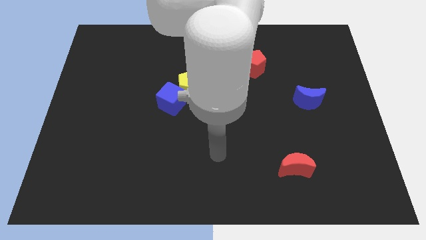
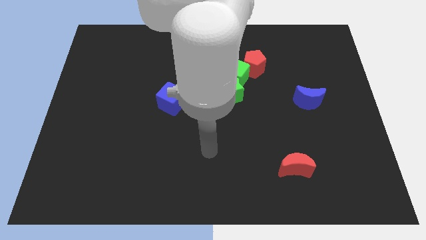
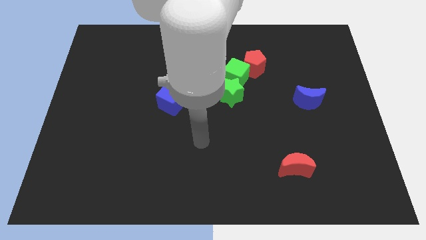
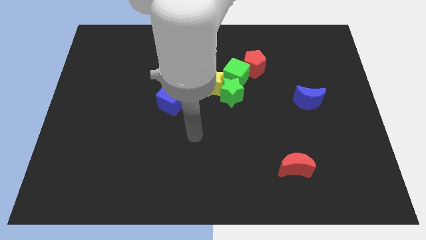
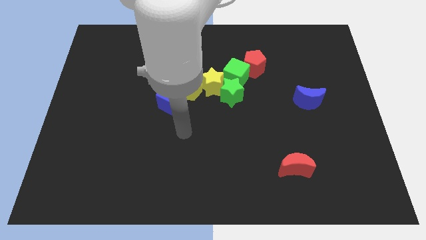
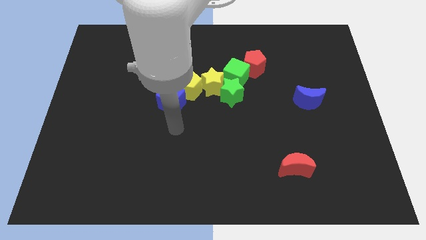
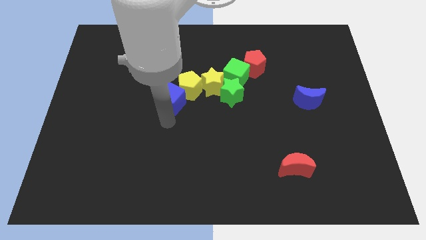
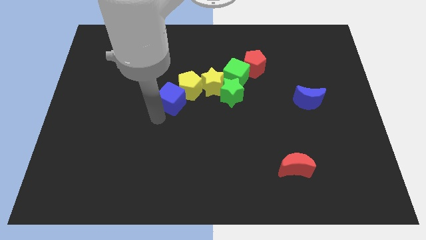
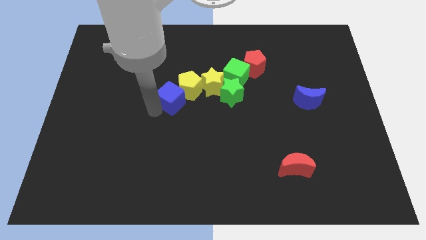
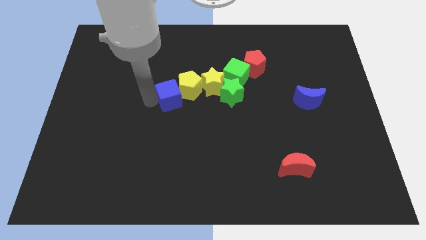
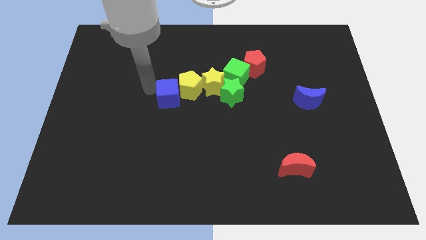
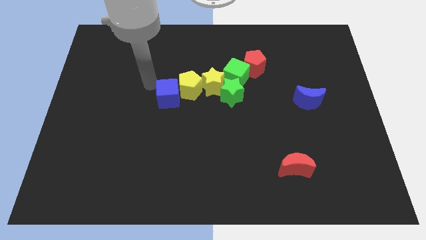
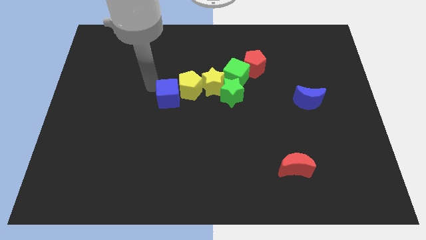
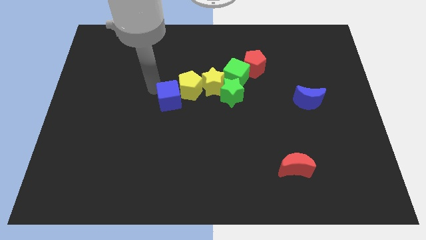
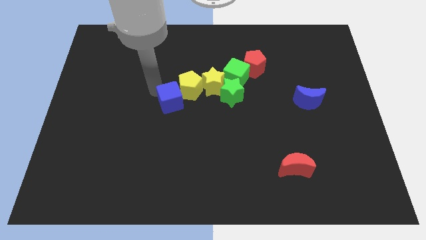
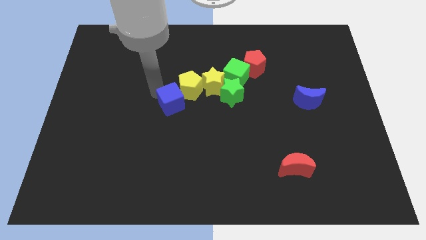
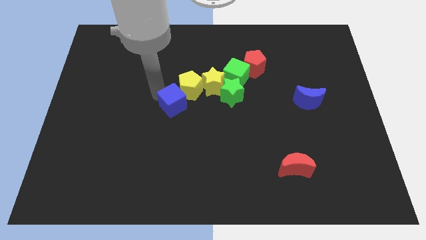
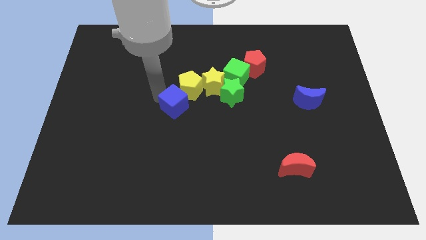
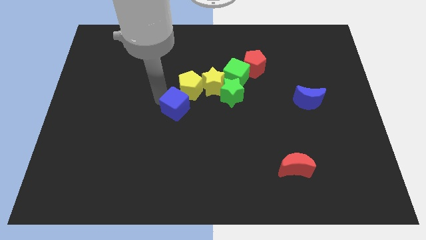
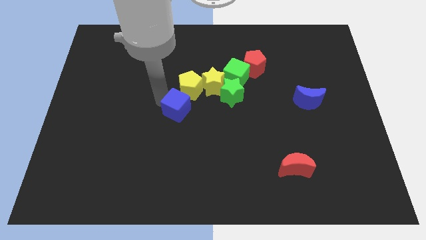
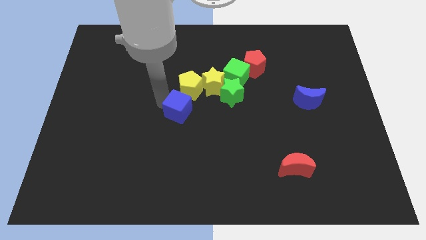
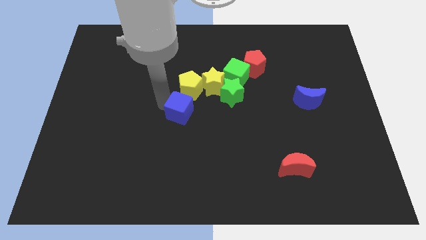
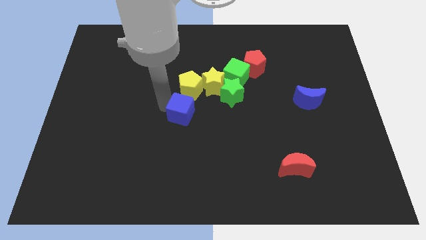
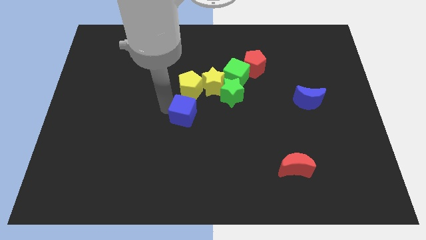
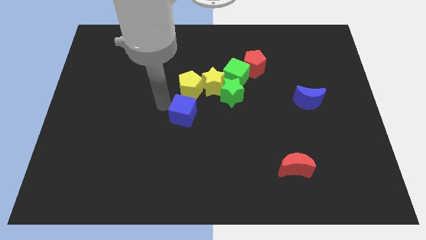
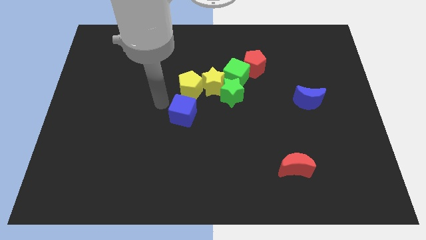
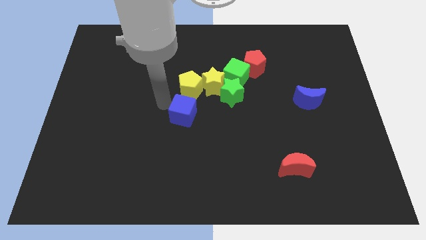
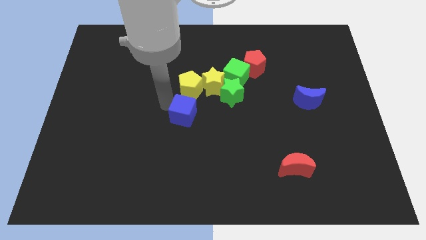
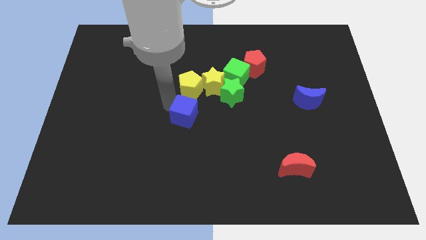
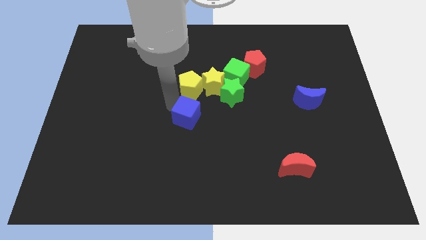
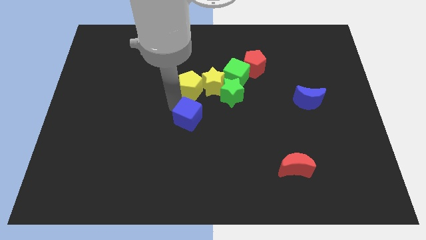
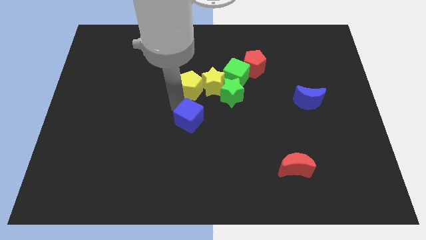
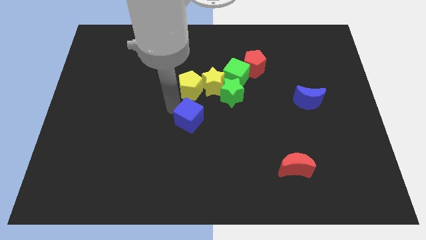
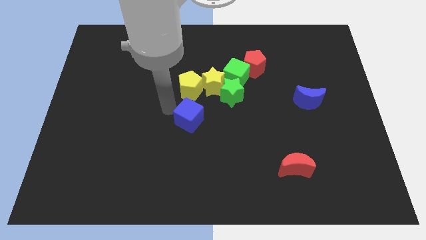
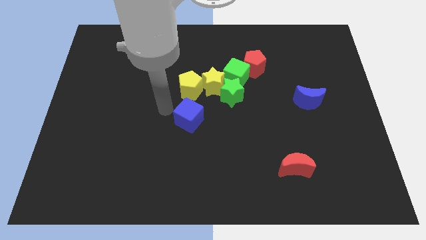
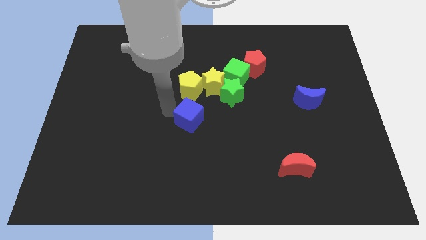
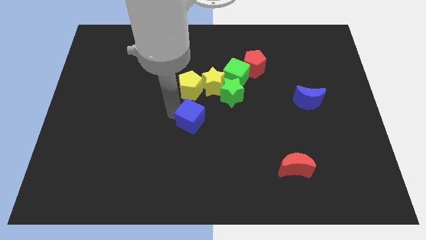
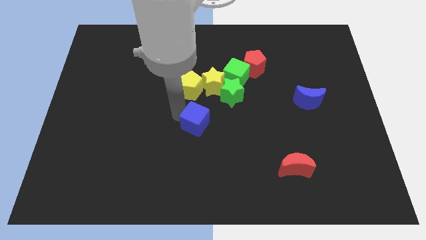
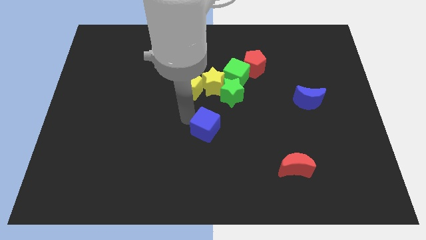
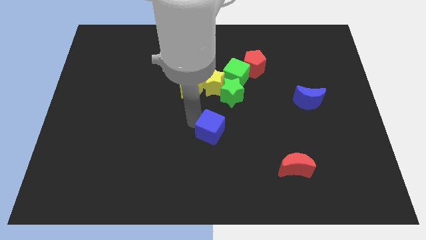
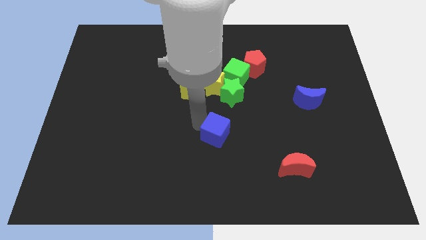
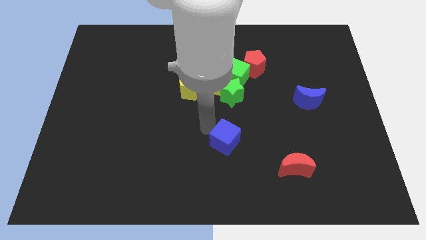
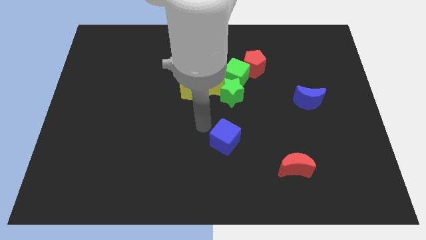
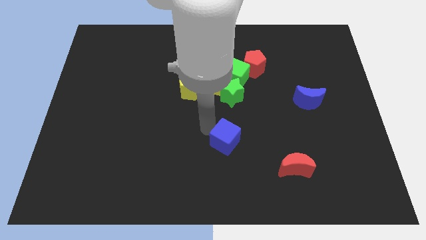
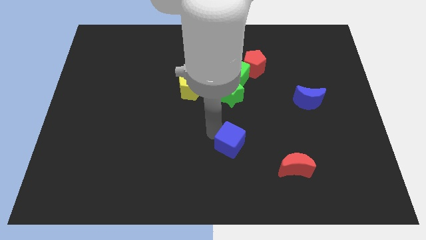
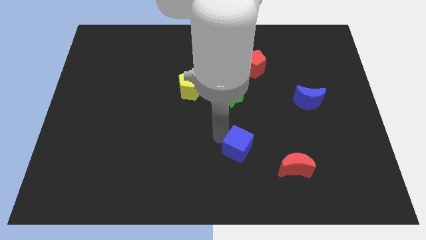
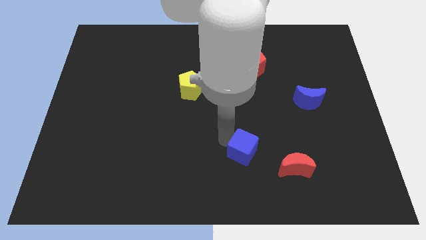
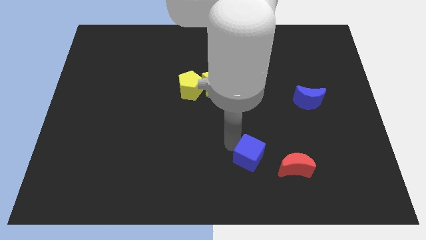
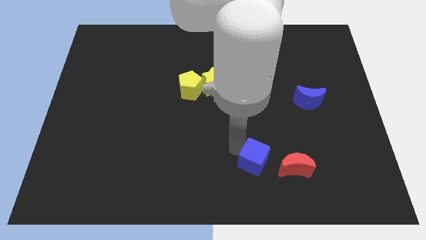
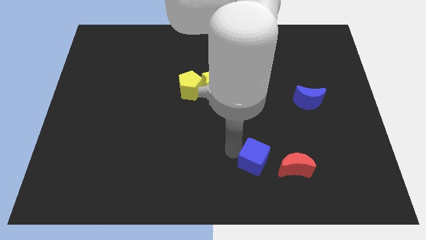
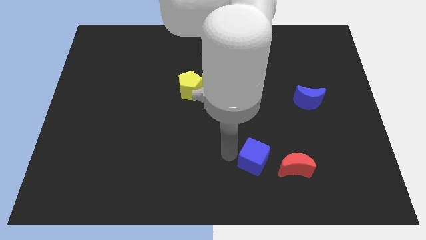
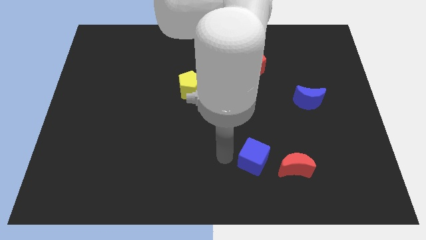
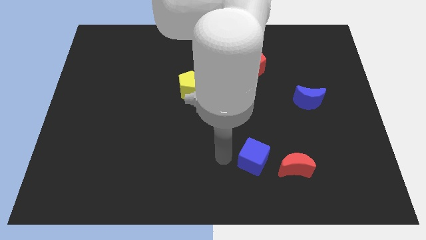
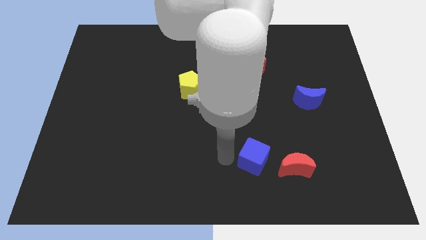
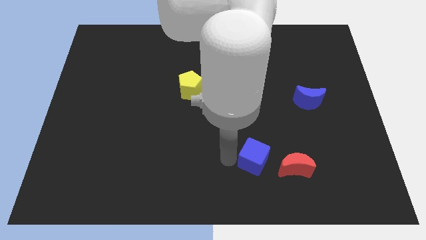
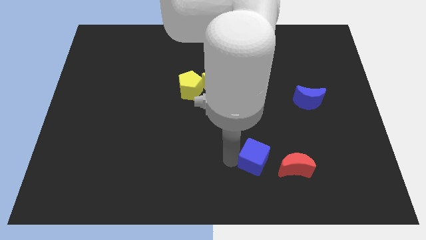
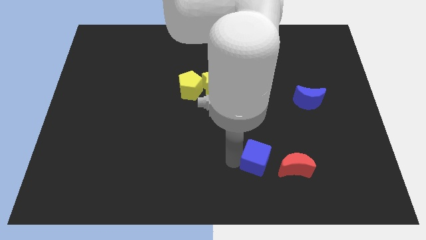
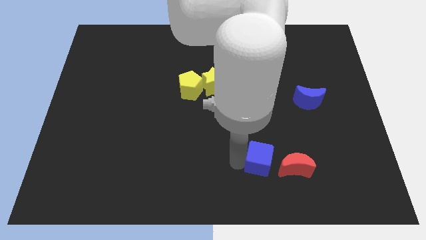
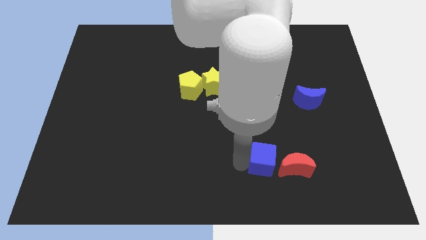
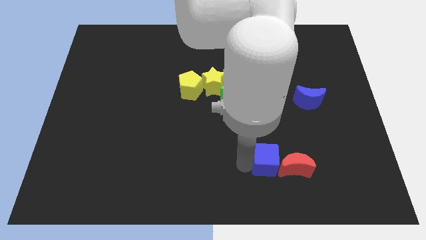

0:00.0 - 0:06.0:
move the blue cube next to the red moon

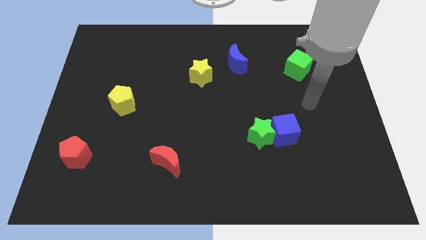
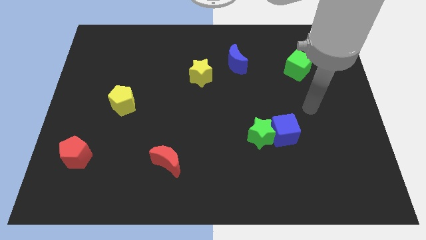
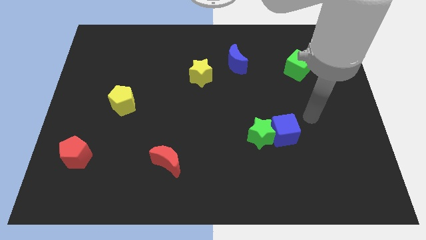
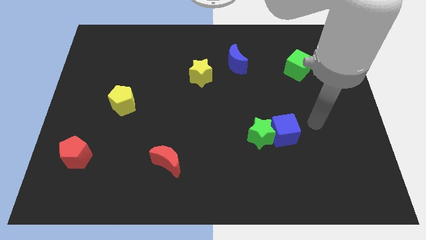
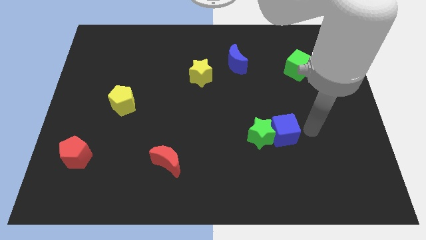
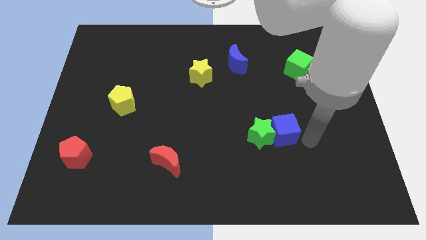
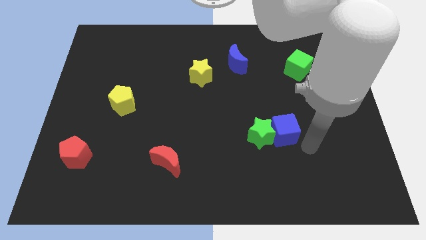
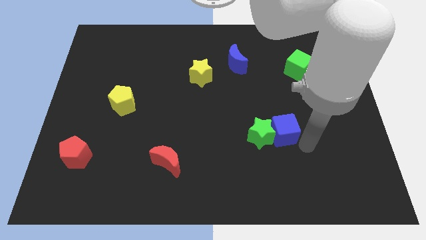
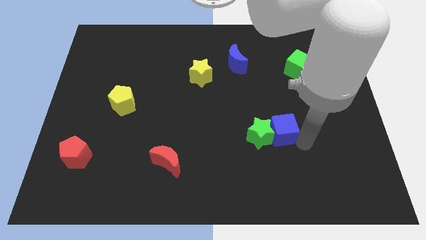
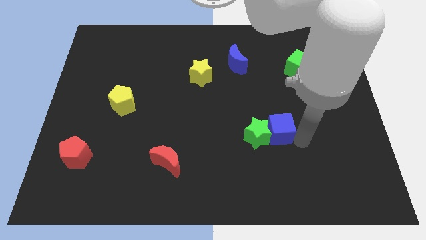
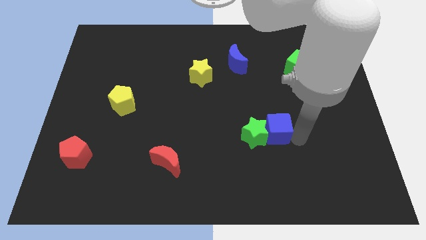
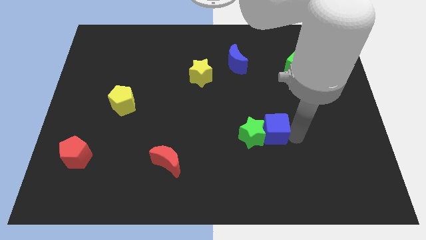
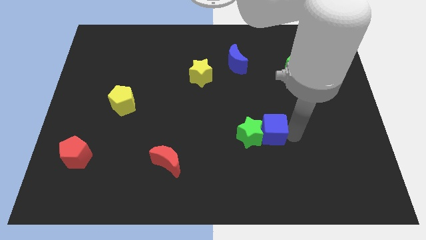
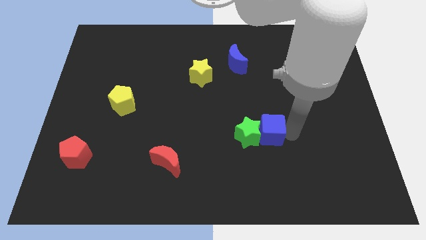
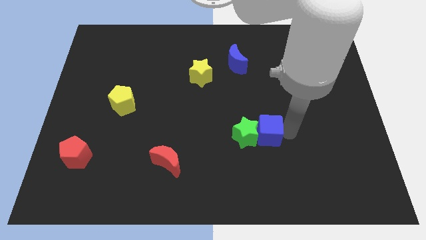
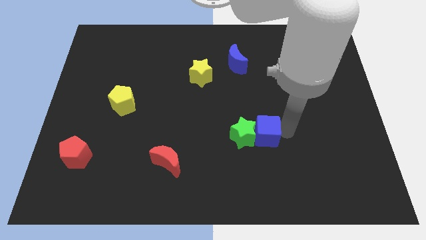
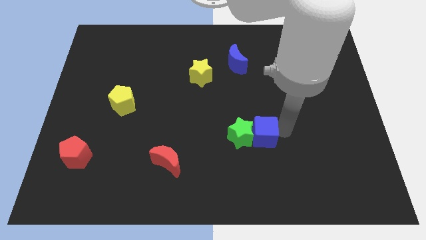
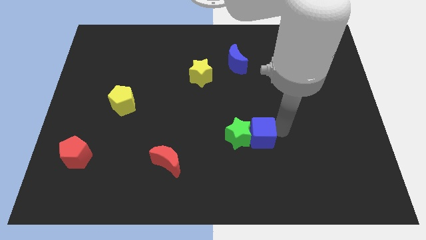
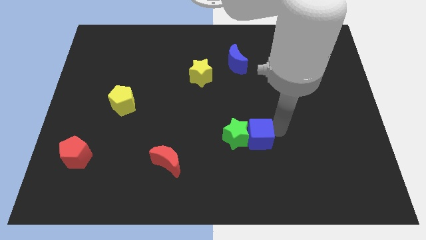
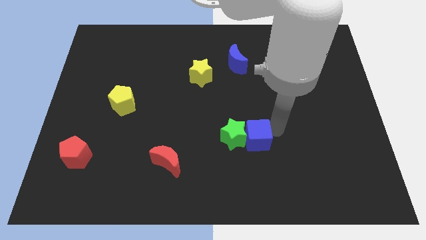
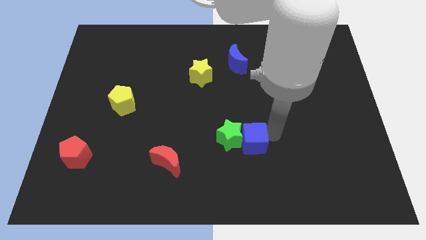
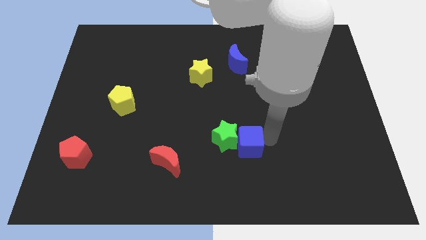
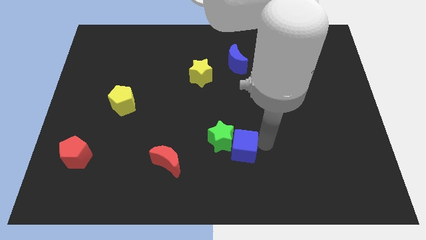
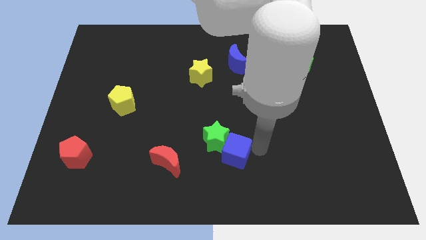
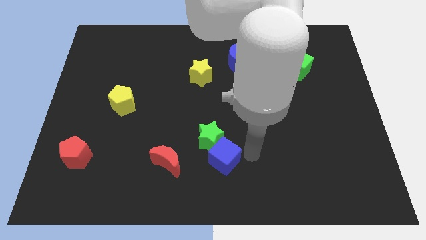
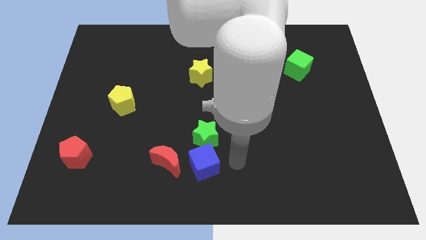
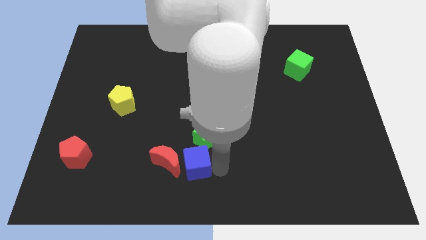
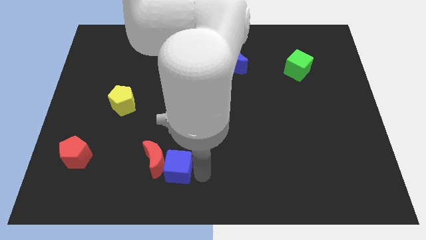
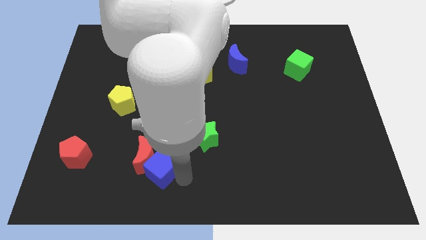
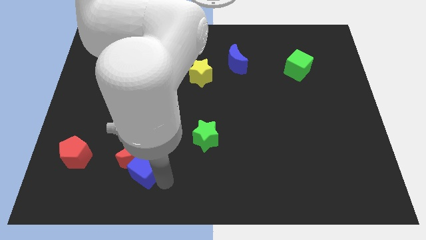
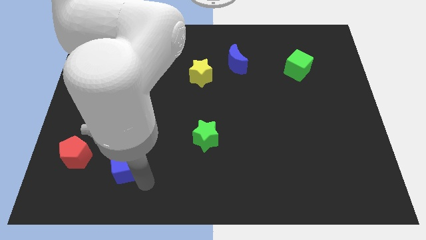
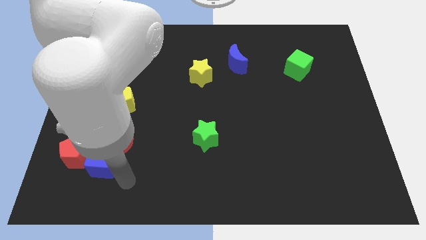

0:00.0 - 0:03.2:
slide the blue cube to the red pentagon
